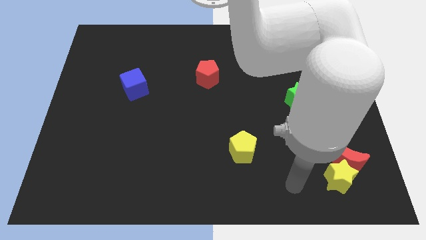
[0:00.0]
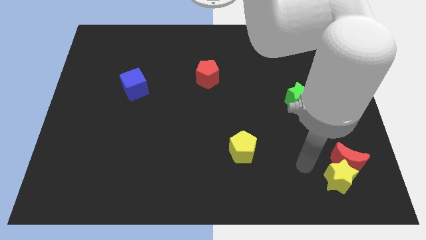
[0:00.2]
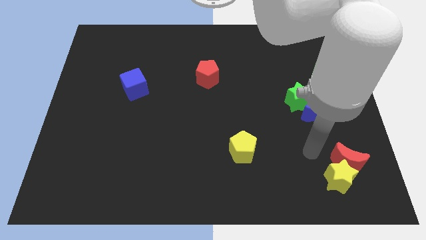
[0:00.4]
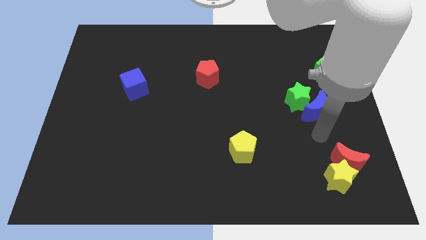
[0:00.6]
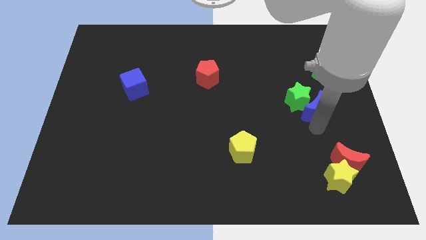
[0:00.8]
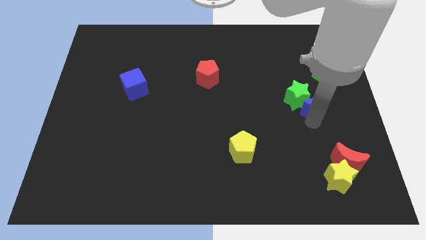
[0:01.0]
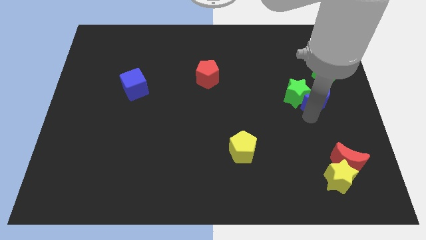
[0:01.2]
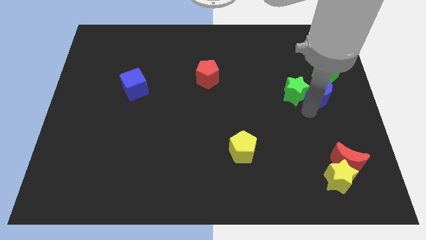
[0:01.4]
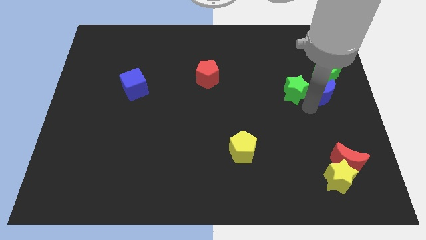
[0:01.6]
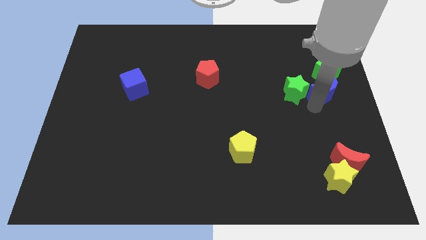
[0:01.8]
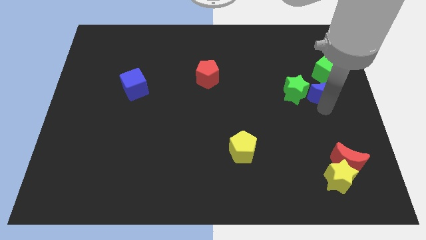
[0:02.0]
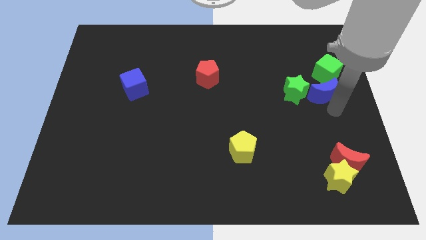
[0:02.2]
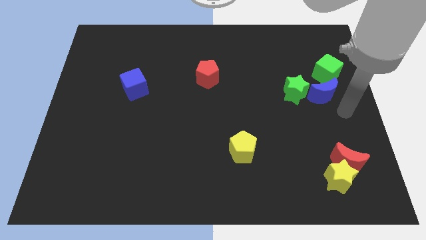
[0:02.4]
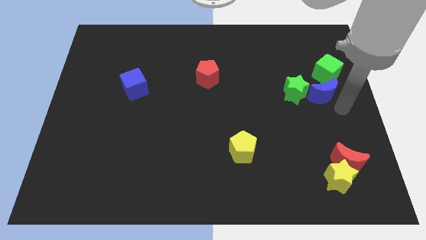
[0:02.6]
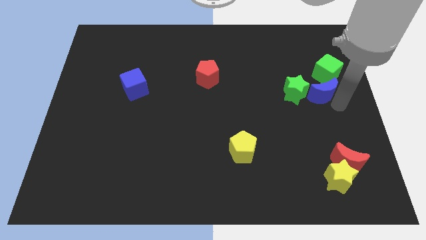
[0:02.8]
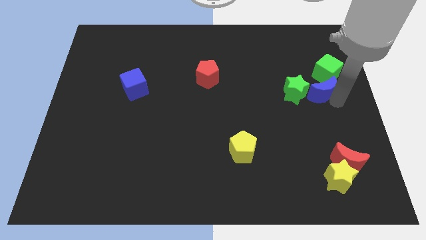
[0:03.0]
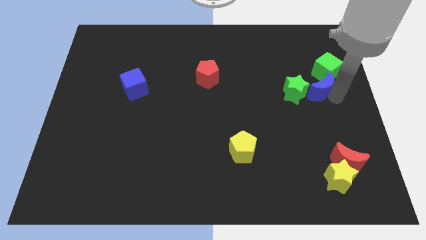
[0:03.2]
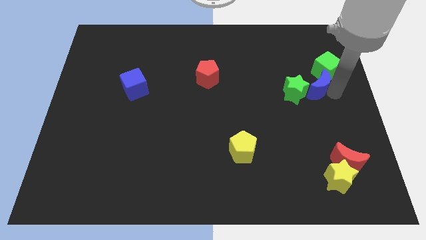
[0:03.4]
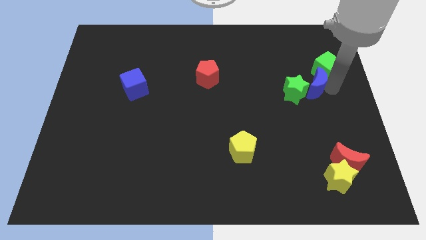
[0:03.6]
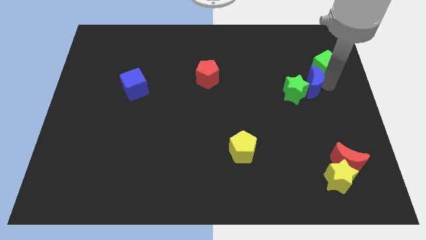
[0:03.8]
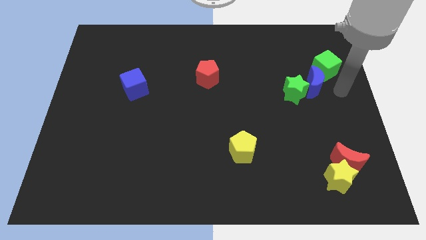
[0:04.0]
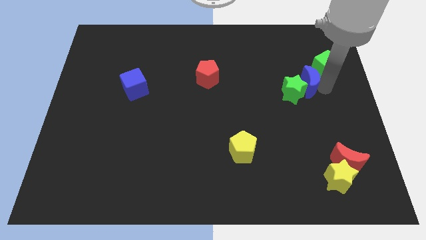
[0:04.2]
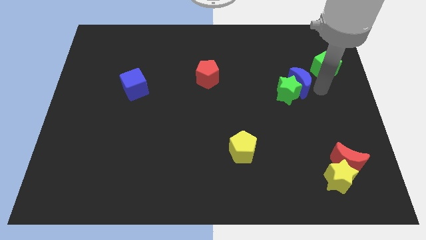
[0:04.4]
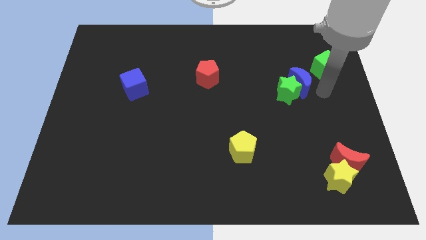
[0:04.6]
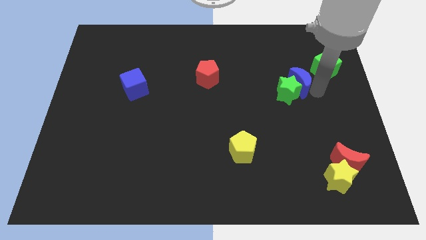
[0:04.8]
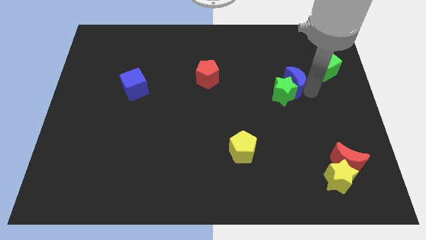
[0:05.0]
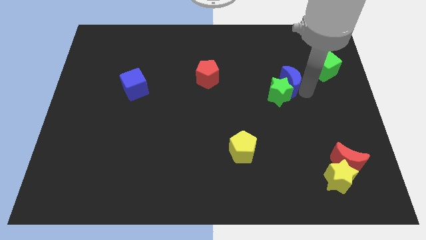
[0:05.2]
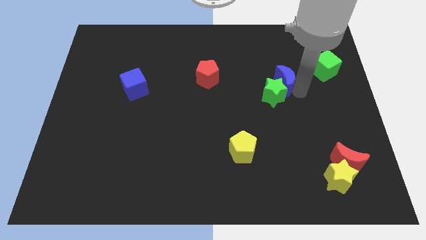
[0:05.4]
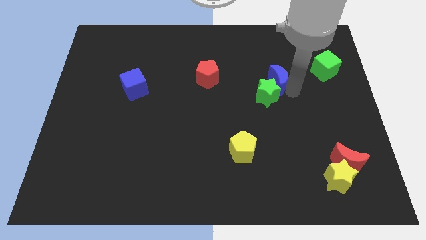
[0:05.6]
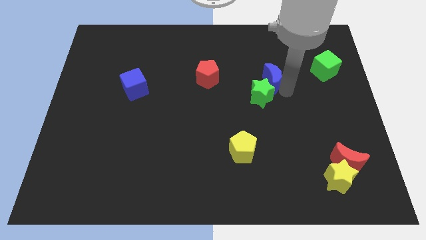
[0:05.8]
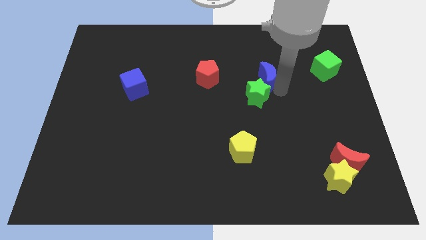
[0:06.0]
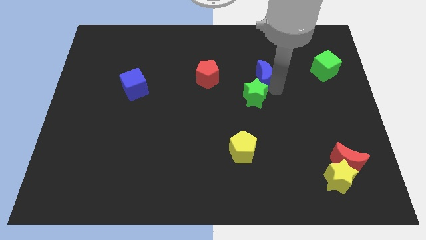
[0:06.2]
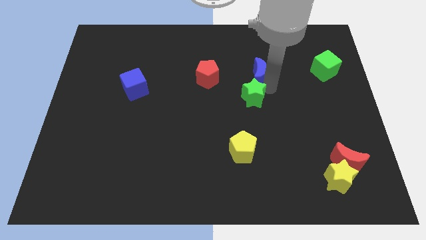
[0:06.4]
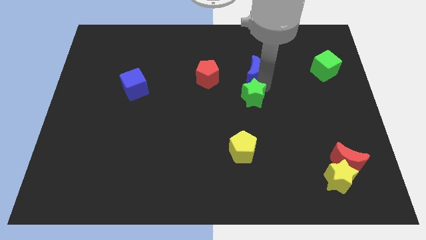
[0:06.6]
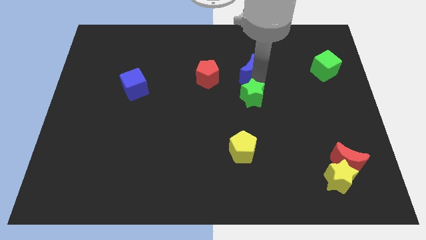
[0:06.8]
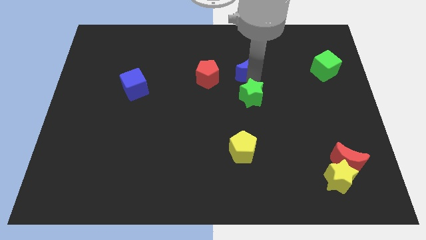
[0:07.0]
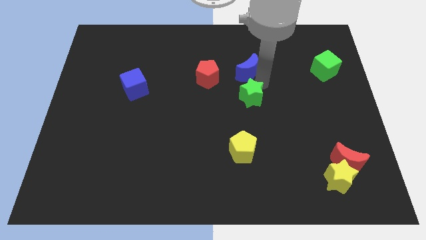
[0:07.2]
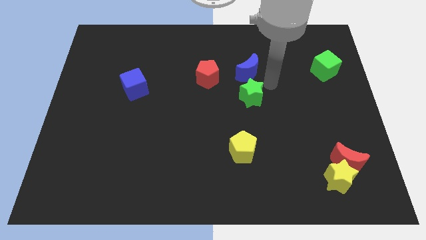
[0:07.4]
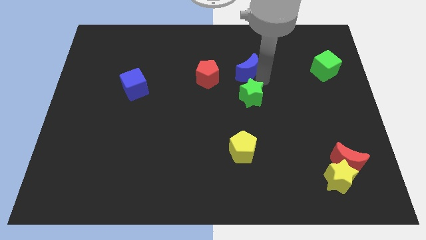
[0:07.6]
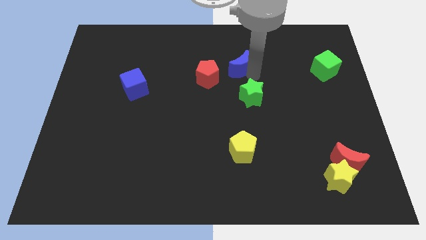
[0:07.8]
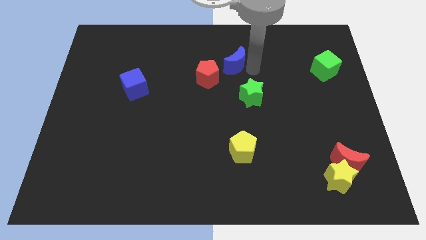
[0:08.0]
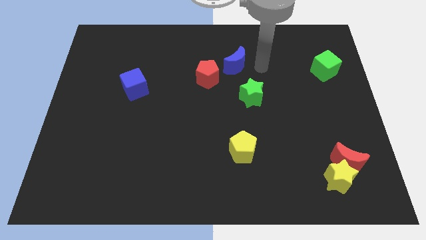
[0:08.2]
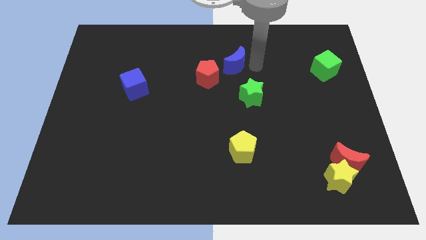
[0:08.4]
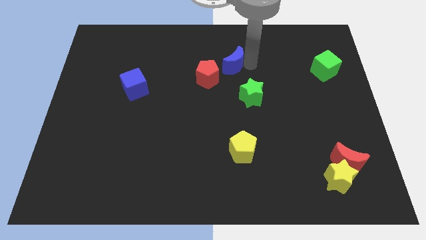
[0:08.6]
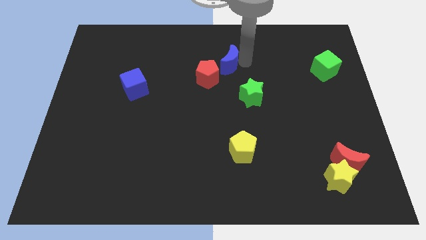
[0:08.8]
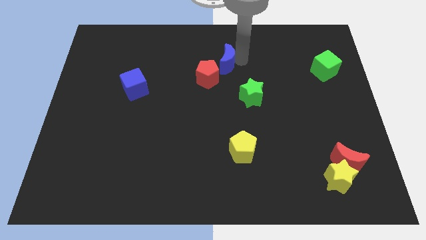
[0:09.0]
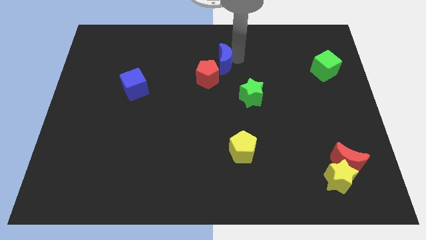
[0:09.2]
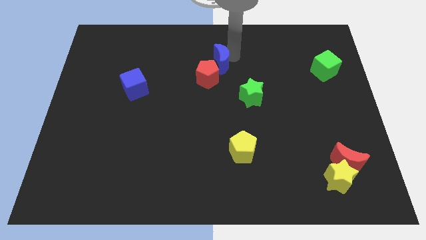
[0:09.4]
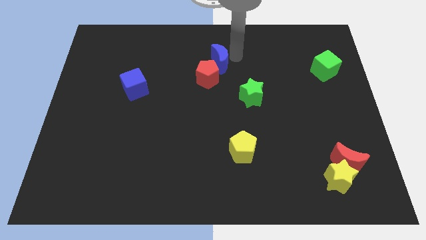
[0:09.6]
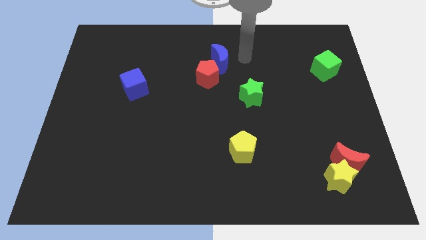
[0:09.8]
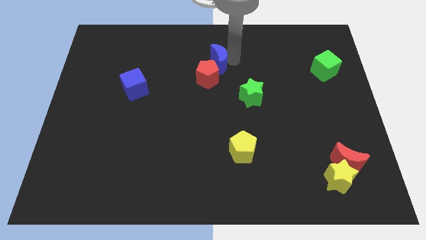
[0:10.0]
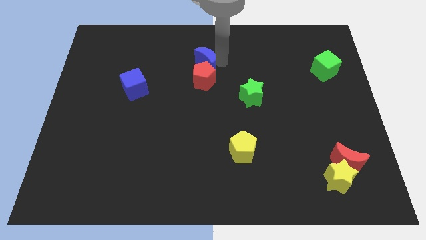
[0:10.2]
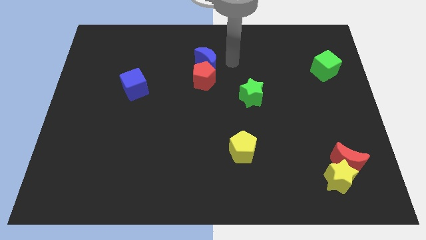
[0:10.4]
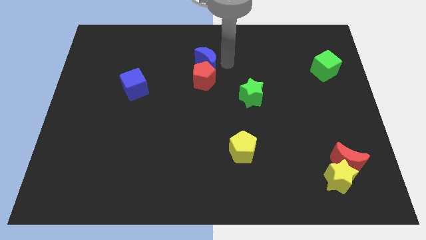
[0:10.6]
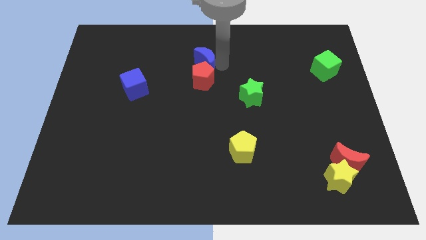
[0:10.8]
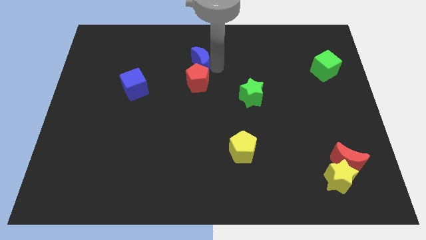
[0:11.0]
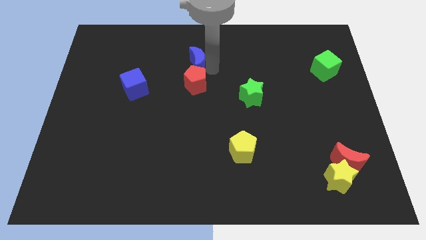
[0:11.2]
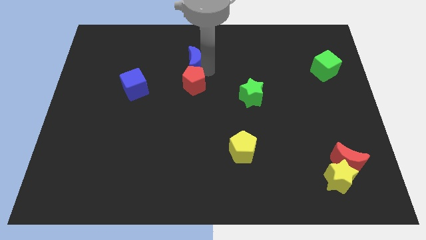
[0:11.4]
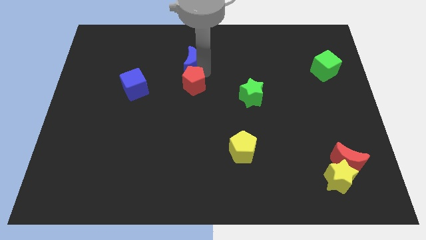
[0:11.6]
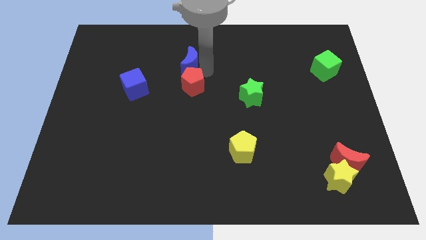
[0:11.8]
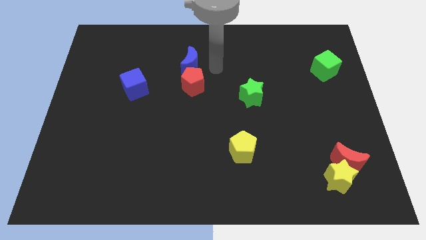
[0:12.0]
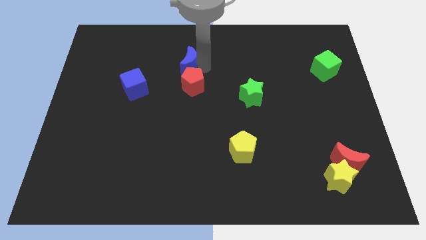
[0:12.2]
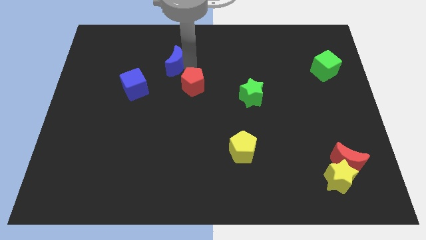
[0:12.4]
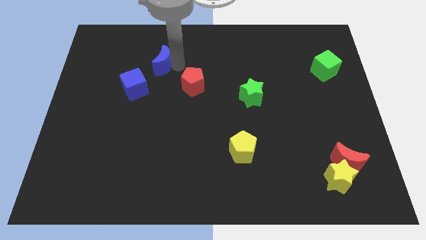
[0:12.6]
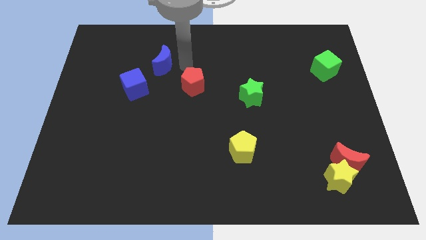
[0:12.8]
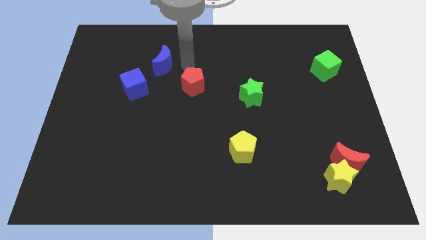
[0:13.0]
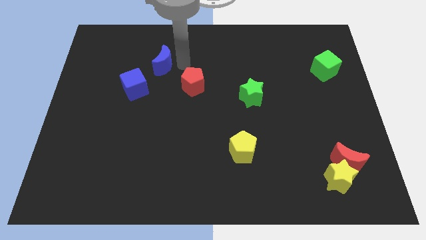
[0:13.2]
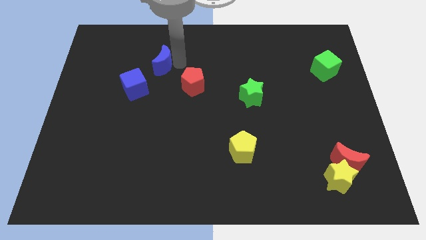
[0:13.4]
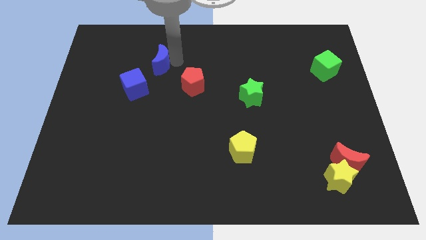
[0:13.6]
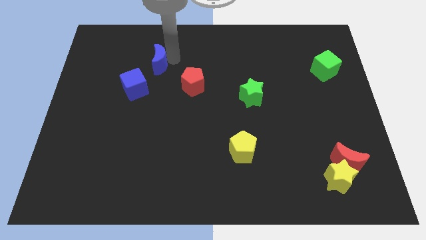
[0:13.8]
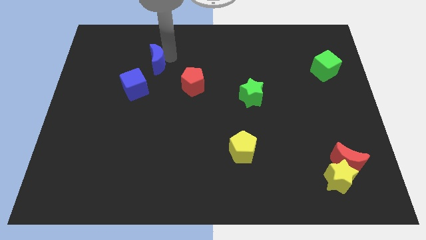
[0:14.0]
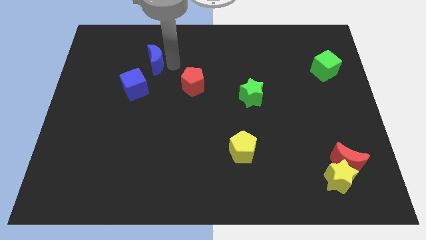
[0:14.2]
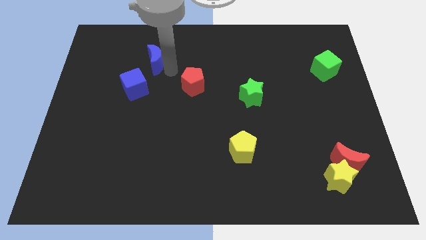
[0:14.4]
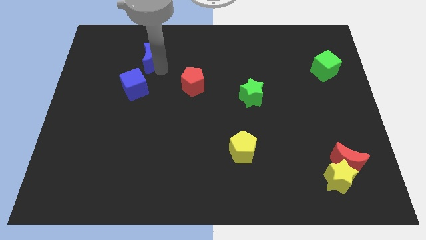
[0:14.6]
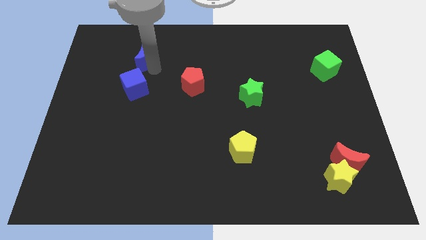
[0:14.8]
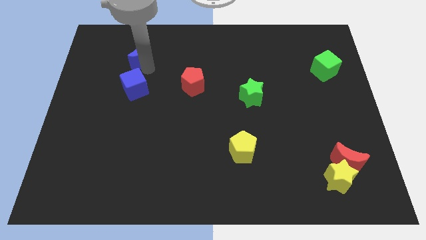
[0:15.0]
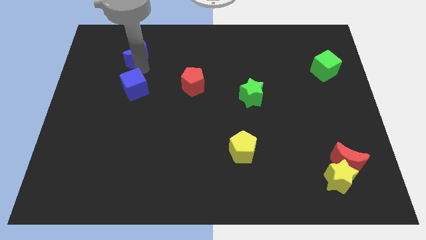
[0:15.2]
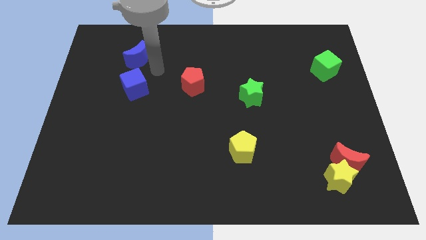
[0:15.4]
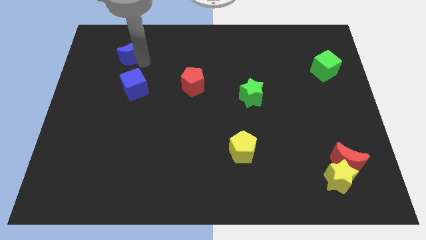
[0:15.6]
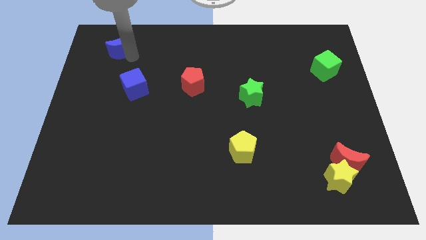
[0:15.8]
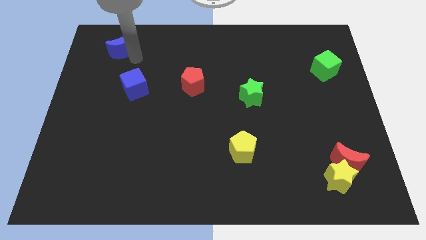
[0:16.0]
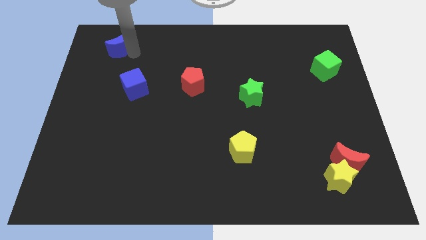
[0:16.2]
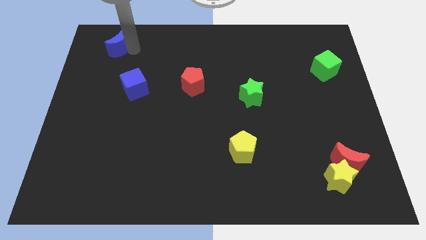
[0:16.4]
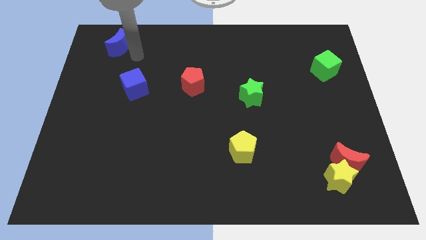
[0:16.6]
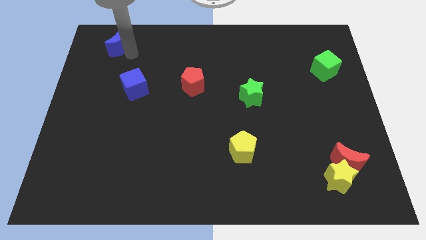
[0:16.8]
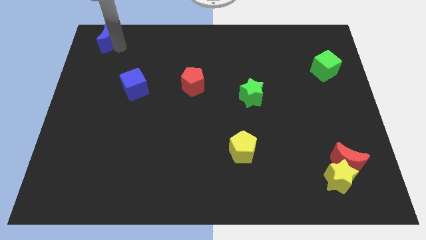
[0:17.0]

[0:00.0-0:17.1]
put the blue moon to the top left of the board
